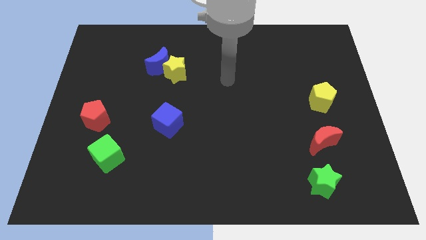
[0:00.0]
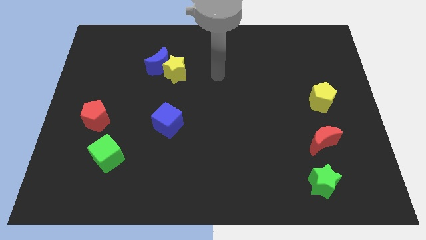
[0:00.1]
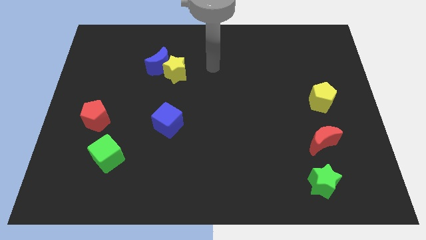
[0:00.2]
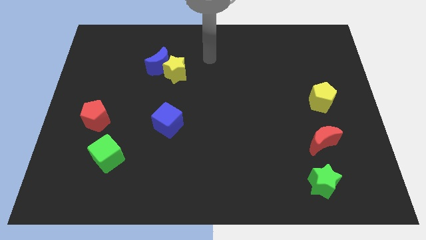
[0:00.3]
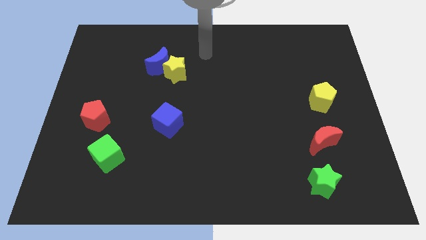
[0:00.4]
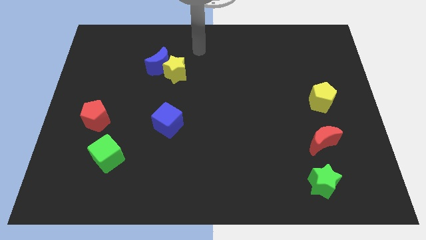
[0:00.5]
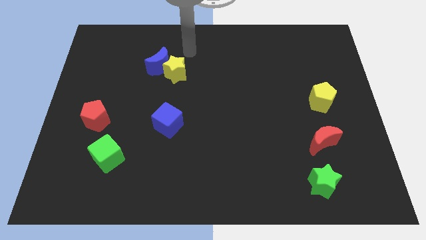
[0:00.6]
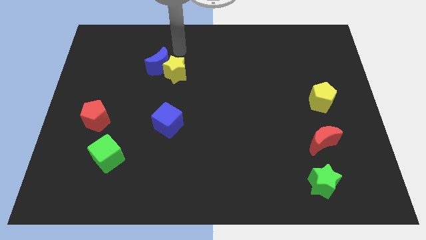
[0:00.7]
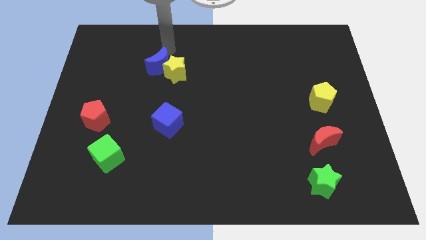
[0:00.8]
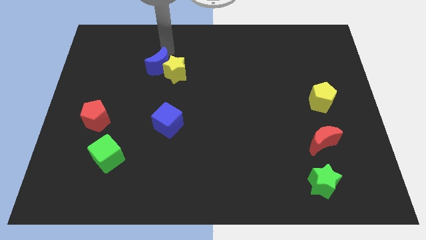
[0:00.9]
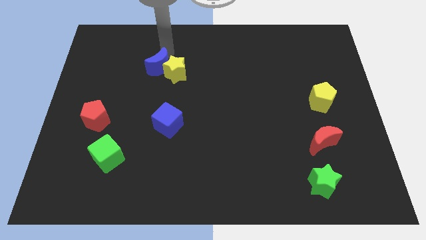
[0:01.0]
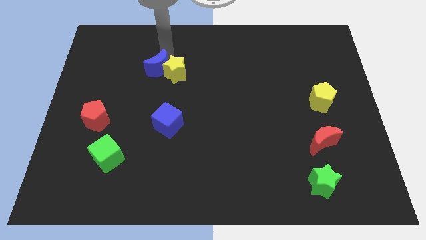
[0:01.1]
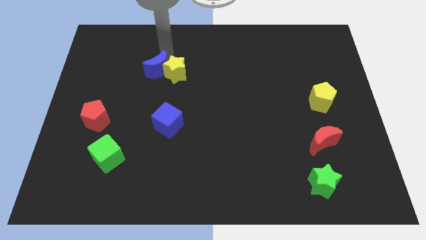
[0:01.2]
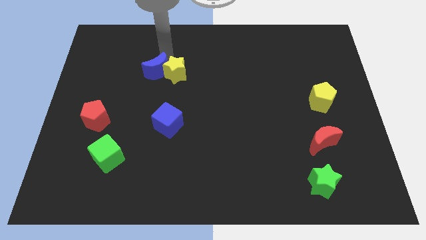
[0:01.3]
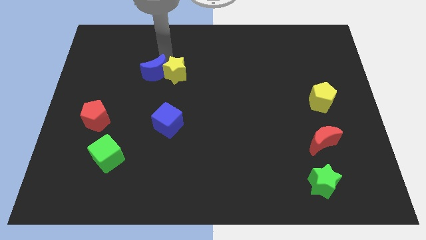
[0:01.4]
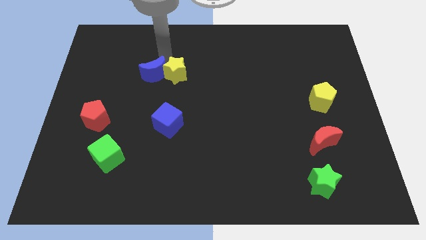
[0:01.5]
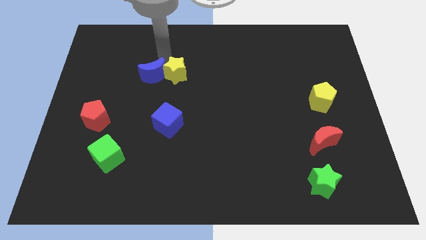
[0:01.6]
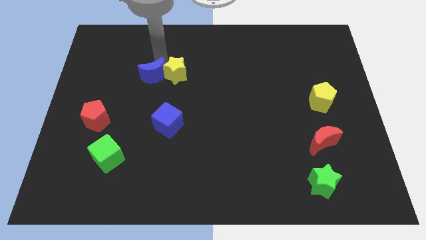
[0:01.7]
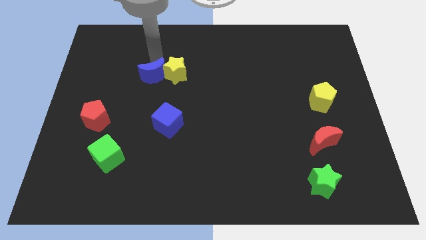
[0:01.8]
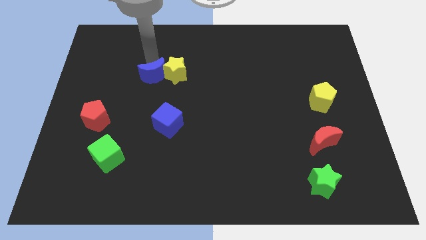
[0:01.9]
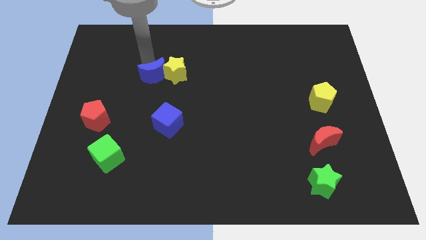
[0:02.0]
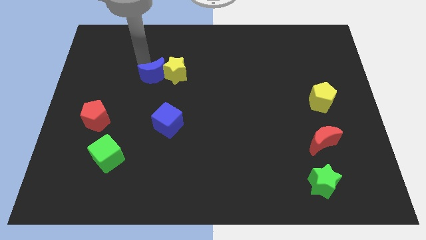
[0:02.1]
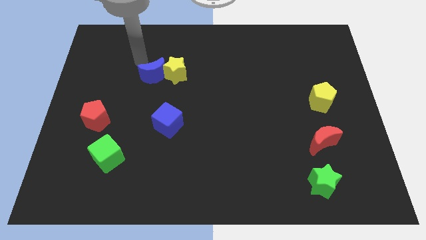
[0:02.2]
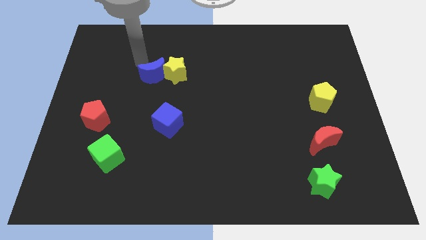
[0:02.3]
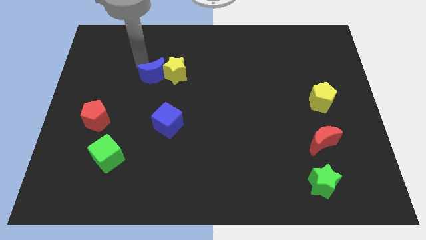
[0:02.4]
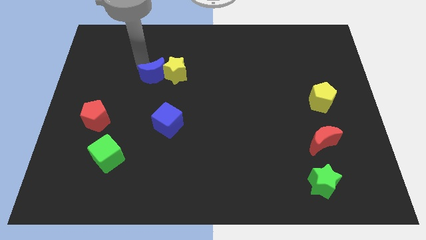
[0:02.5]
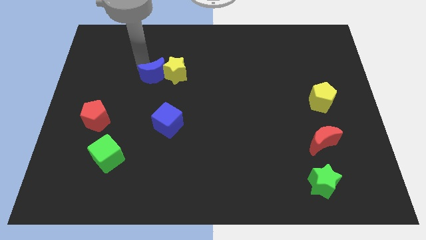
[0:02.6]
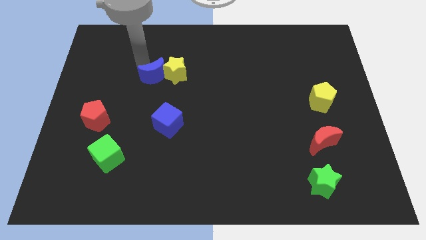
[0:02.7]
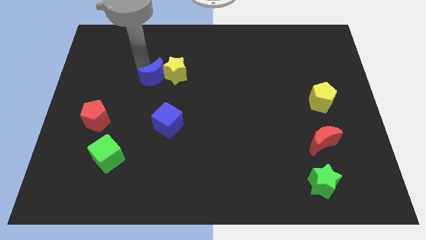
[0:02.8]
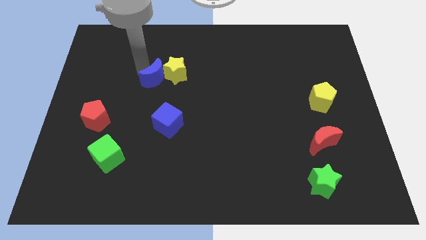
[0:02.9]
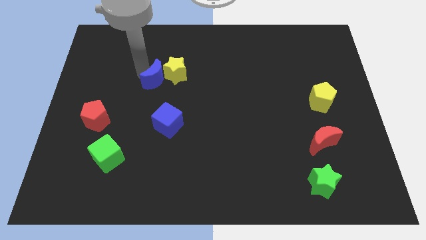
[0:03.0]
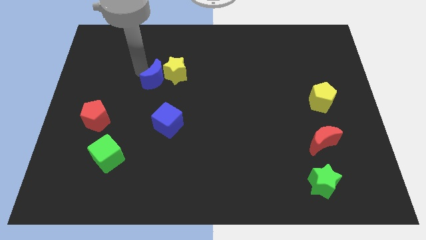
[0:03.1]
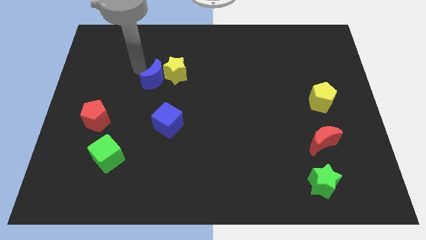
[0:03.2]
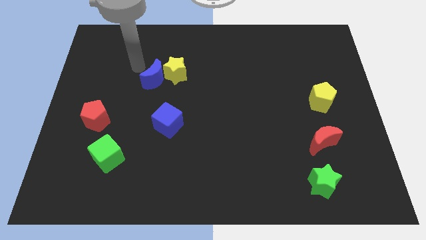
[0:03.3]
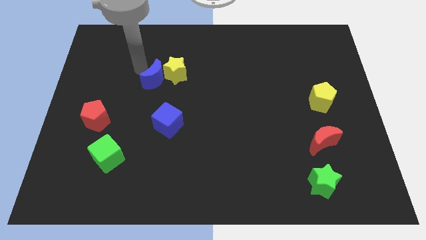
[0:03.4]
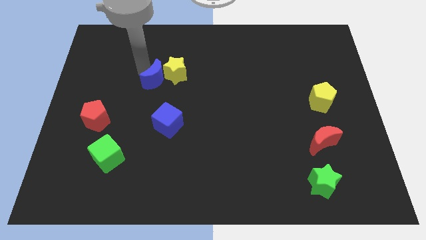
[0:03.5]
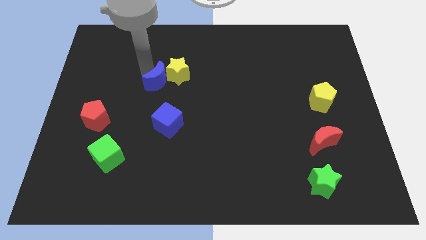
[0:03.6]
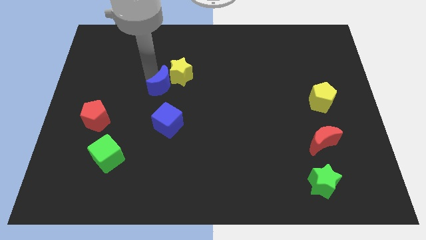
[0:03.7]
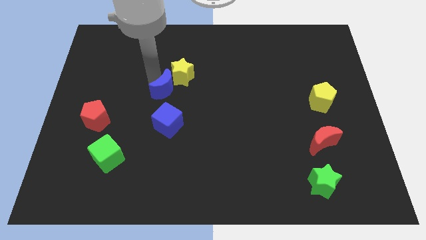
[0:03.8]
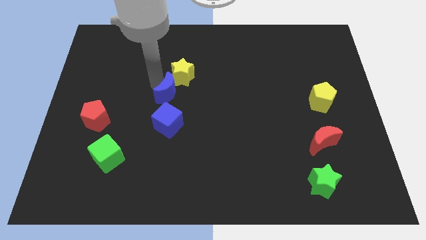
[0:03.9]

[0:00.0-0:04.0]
slightly move the blue moon diagonally down and to the right

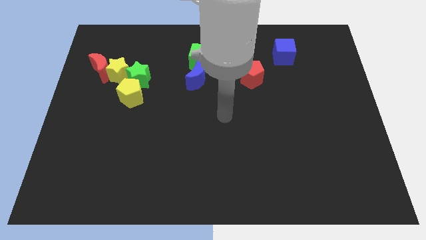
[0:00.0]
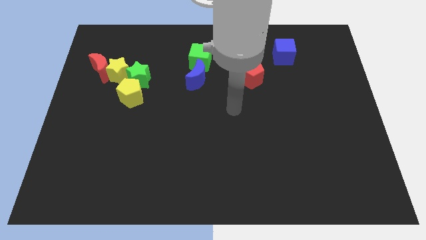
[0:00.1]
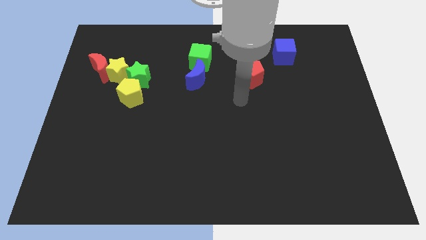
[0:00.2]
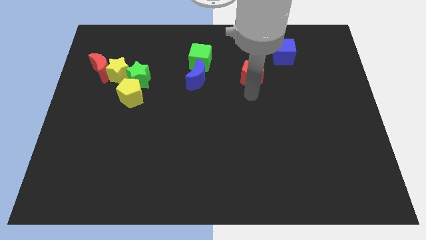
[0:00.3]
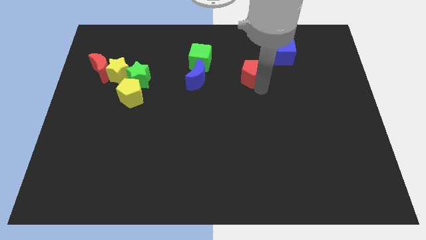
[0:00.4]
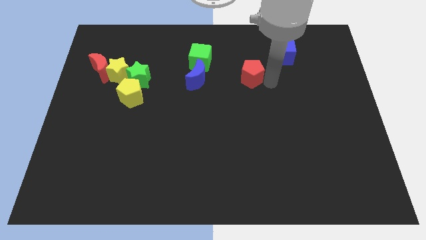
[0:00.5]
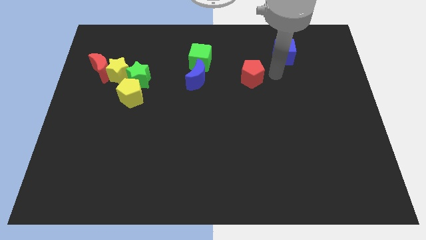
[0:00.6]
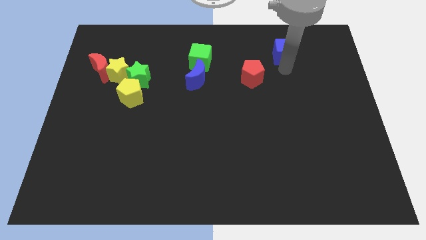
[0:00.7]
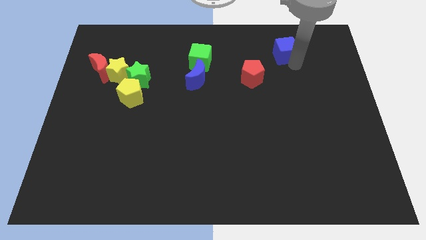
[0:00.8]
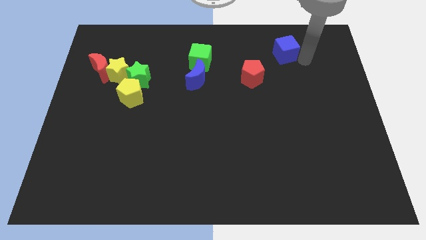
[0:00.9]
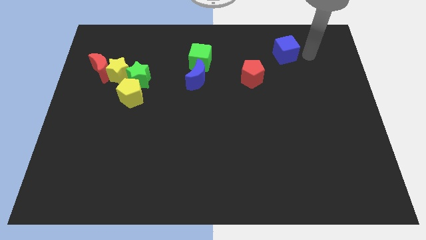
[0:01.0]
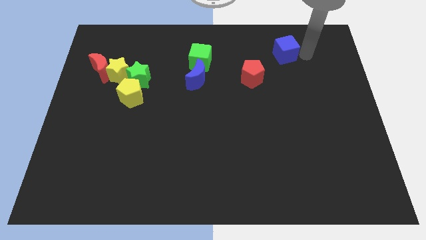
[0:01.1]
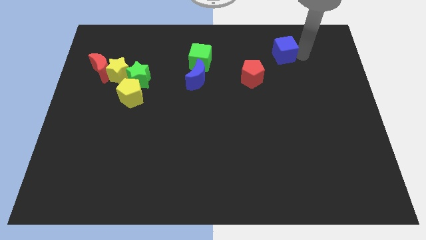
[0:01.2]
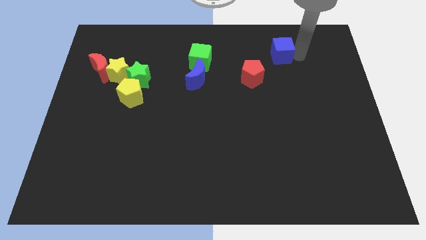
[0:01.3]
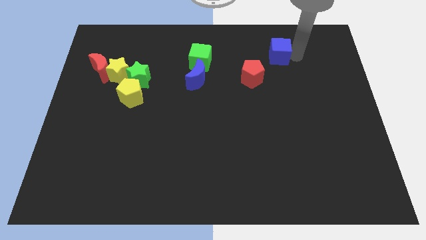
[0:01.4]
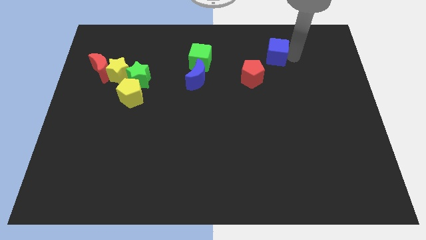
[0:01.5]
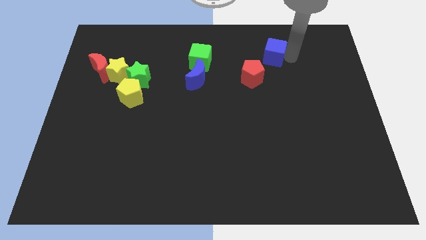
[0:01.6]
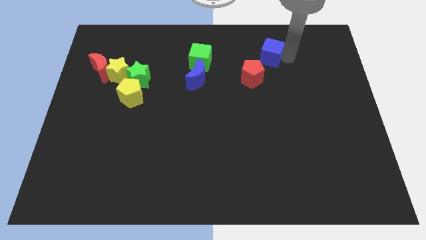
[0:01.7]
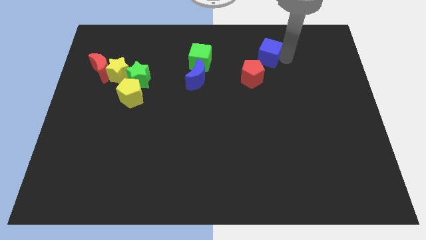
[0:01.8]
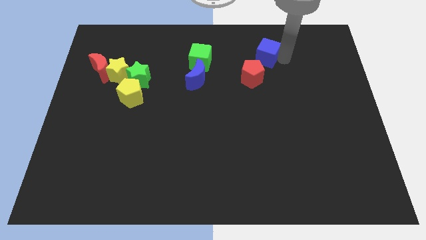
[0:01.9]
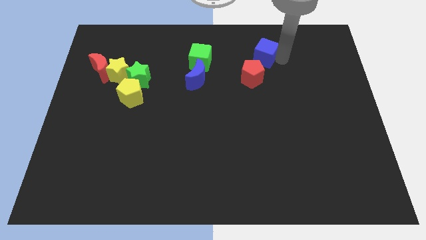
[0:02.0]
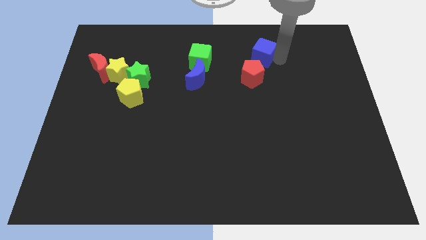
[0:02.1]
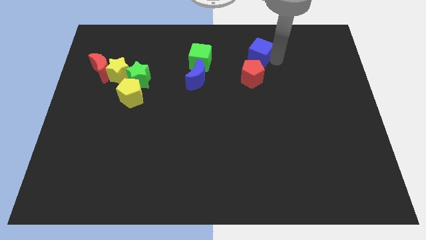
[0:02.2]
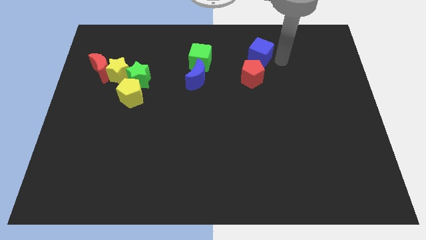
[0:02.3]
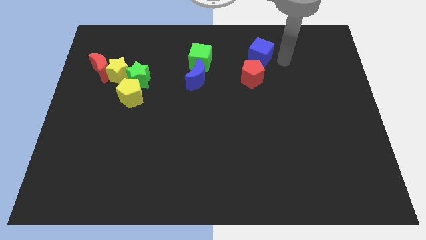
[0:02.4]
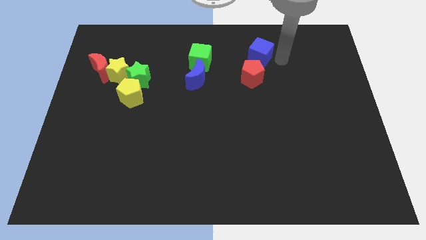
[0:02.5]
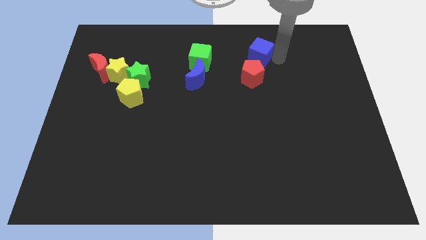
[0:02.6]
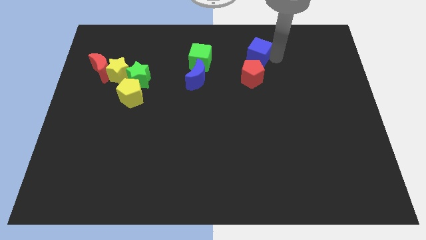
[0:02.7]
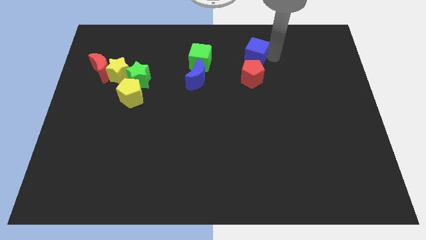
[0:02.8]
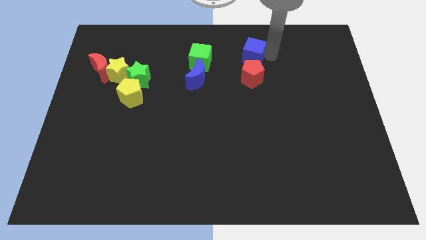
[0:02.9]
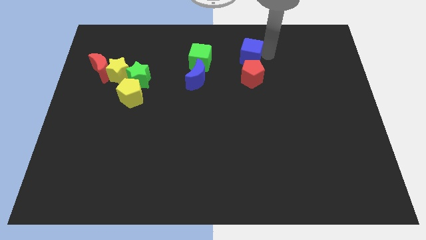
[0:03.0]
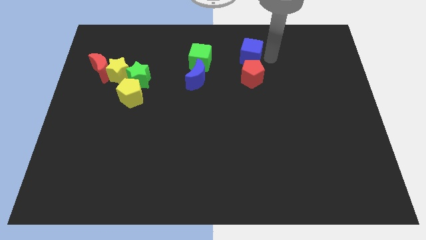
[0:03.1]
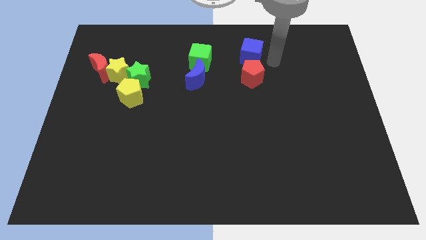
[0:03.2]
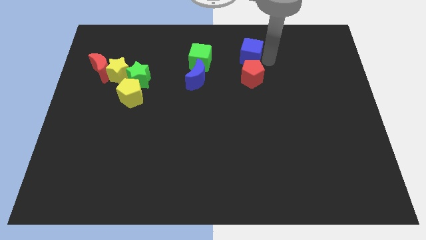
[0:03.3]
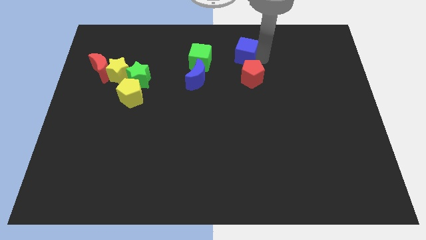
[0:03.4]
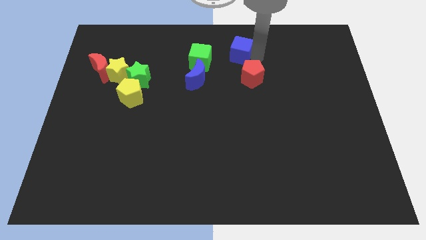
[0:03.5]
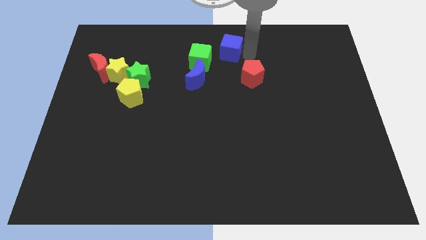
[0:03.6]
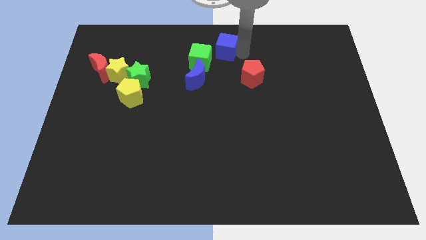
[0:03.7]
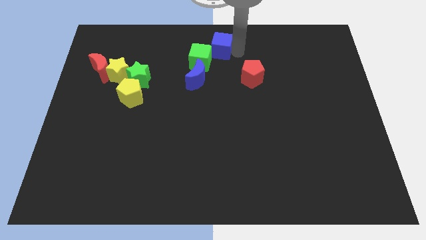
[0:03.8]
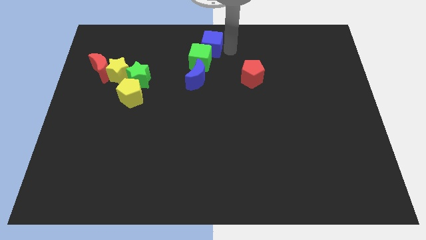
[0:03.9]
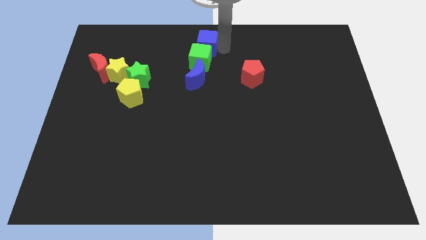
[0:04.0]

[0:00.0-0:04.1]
slide the blue cube to the left
